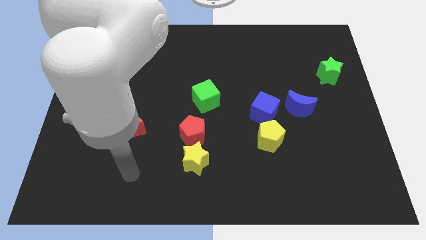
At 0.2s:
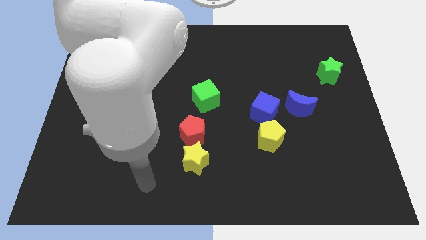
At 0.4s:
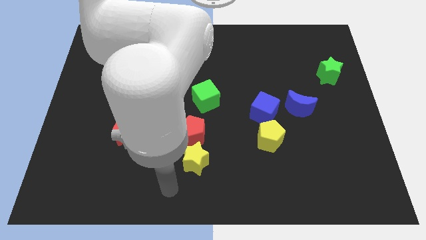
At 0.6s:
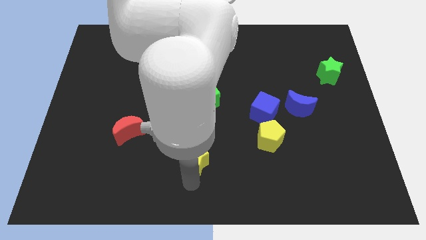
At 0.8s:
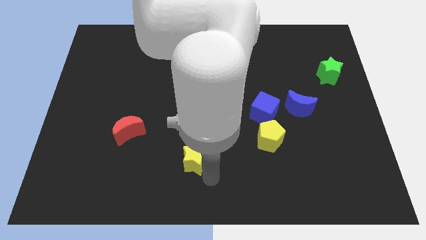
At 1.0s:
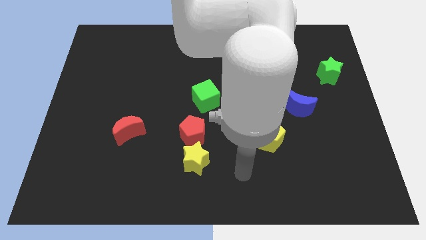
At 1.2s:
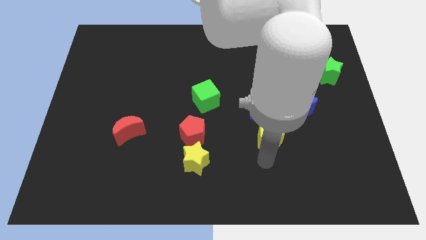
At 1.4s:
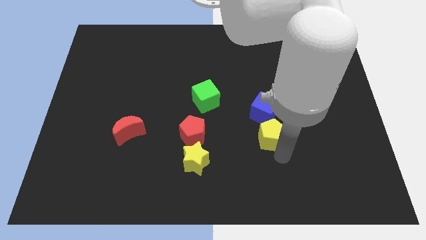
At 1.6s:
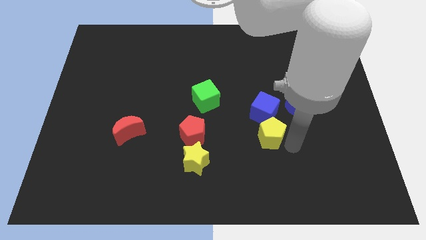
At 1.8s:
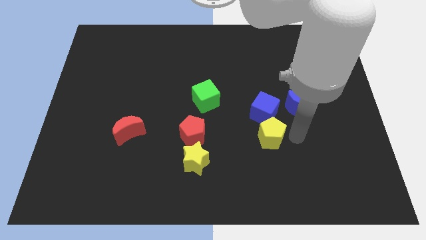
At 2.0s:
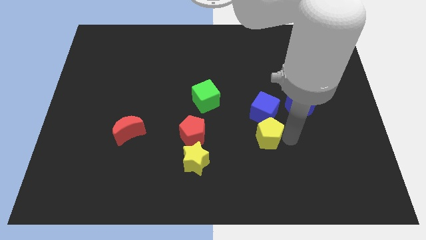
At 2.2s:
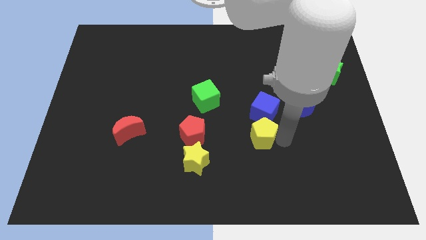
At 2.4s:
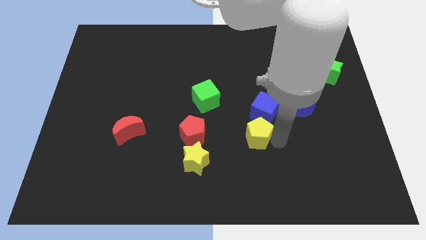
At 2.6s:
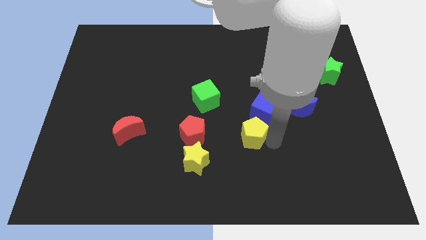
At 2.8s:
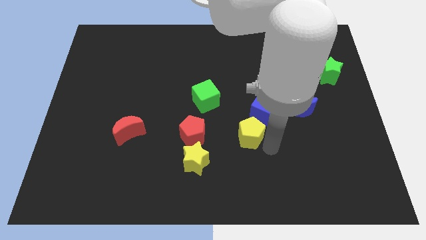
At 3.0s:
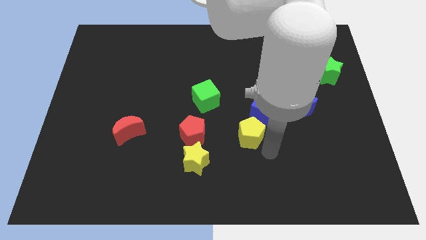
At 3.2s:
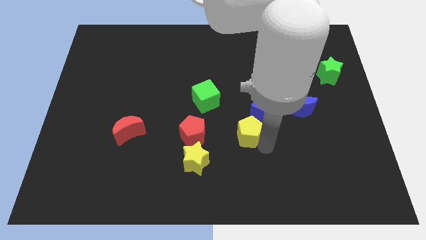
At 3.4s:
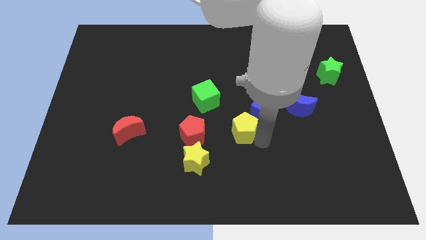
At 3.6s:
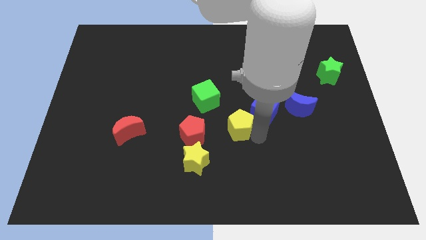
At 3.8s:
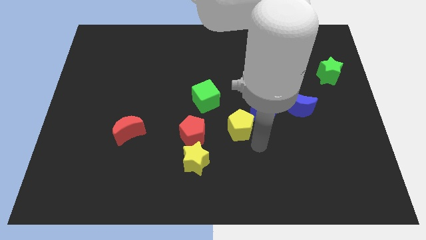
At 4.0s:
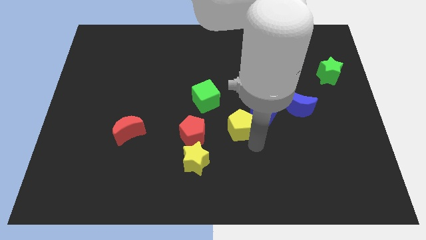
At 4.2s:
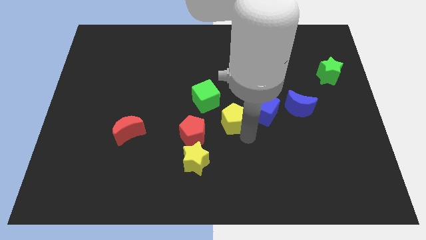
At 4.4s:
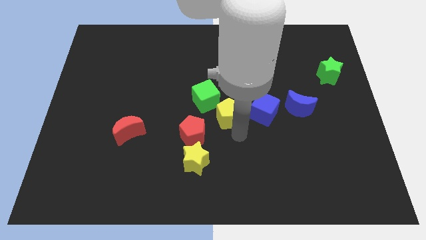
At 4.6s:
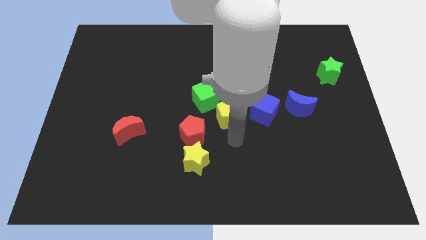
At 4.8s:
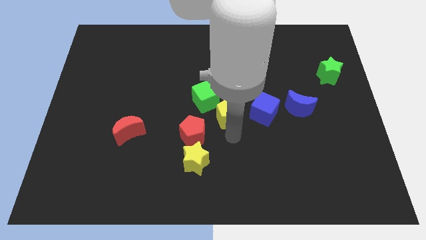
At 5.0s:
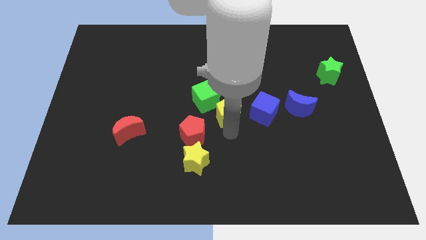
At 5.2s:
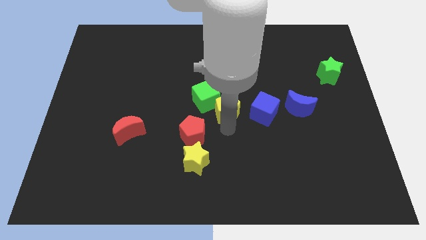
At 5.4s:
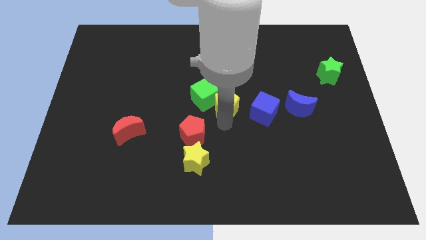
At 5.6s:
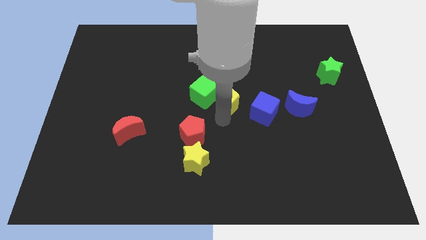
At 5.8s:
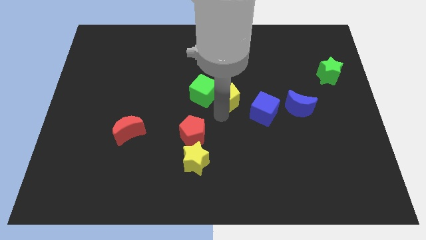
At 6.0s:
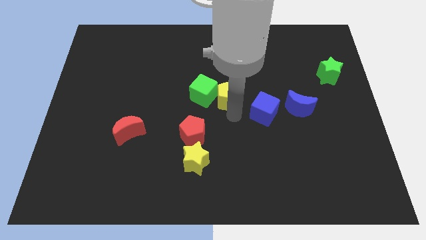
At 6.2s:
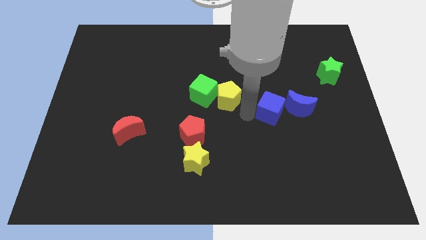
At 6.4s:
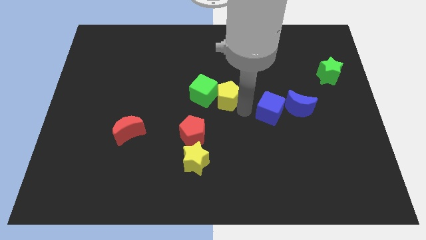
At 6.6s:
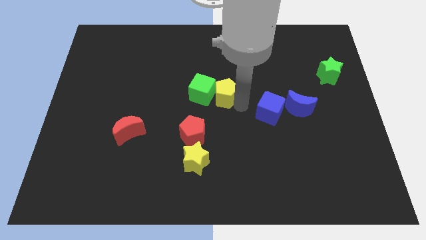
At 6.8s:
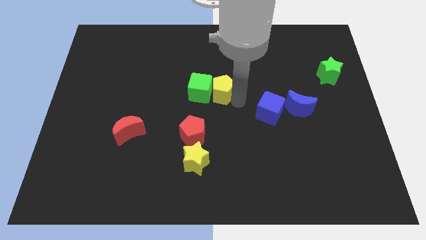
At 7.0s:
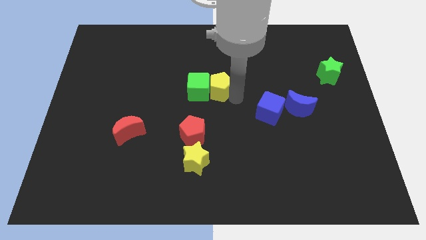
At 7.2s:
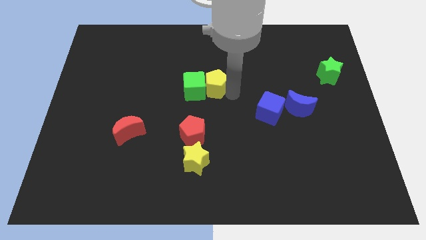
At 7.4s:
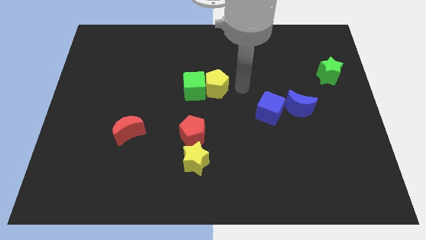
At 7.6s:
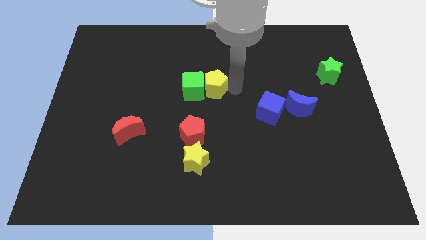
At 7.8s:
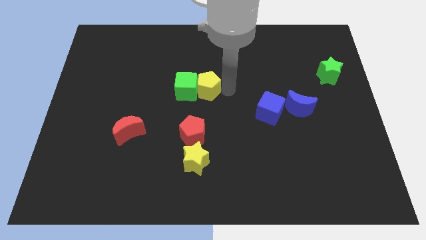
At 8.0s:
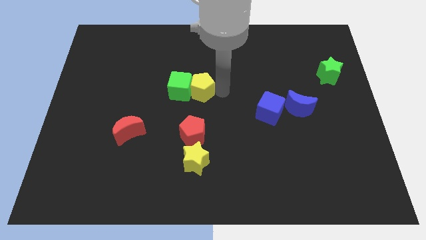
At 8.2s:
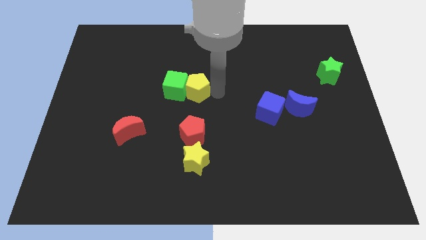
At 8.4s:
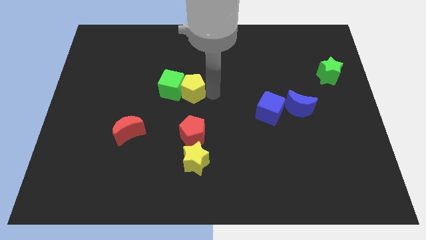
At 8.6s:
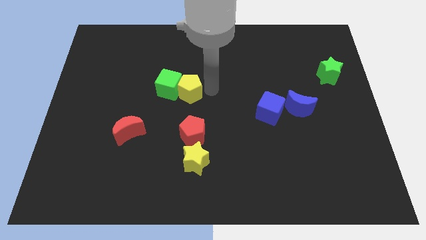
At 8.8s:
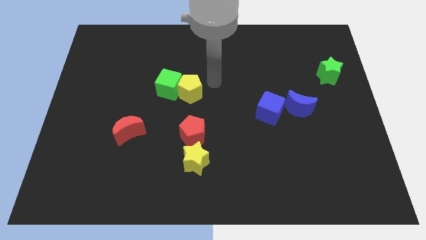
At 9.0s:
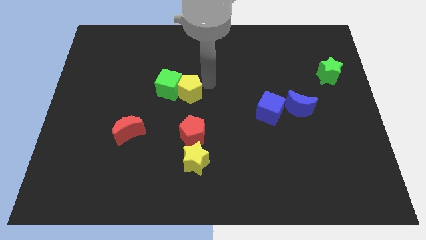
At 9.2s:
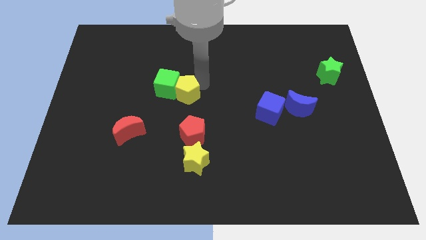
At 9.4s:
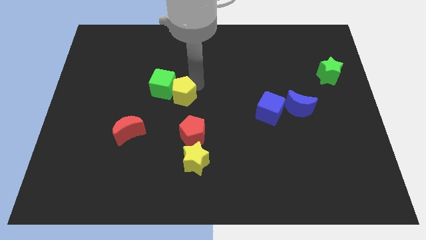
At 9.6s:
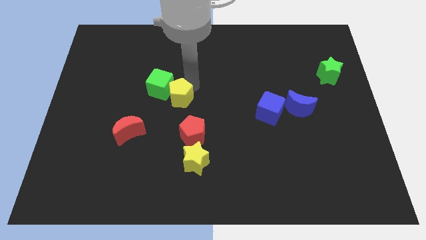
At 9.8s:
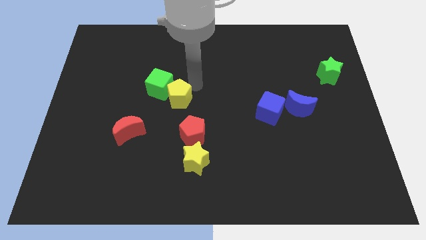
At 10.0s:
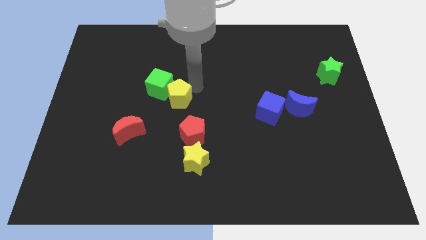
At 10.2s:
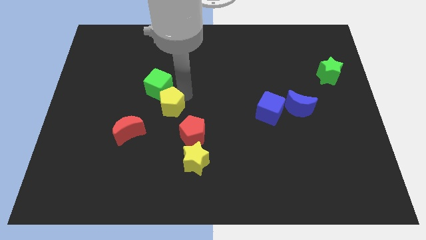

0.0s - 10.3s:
put the yellow pentagon diagonally up and to the right of the red moon

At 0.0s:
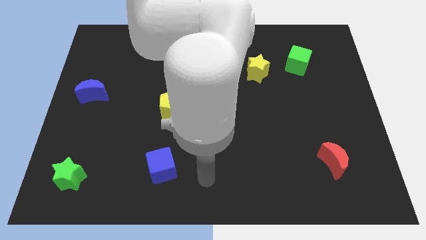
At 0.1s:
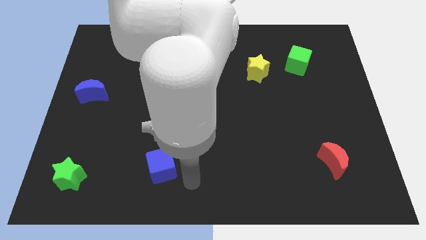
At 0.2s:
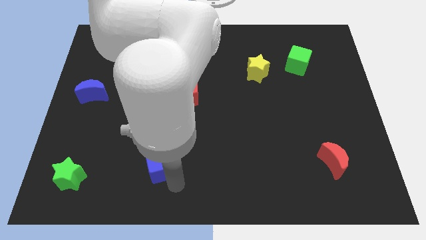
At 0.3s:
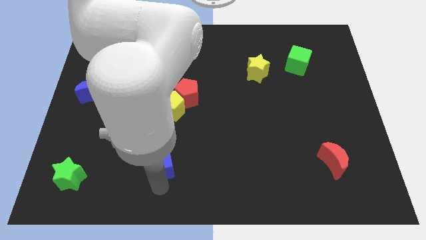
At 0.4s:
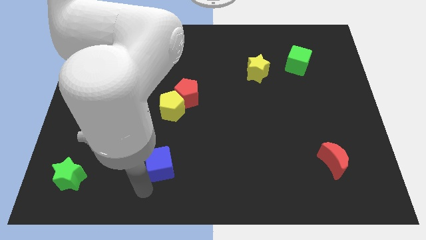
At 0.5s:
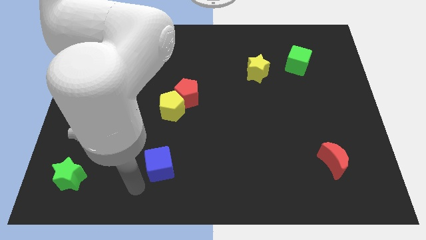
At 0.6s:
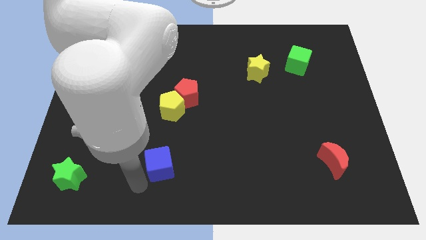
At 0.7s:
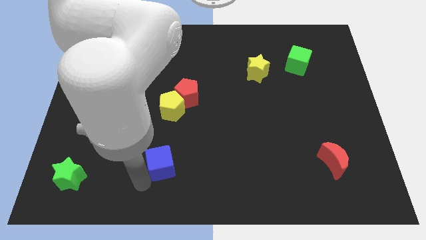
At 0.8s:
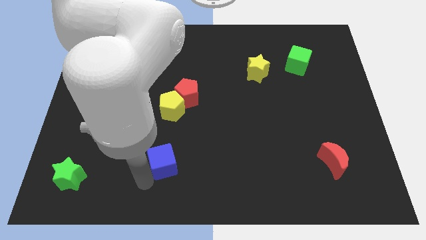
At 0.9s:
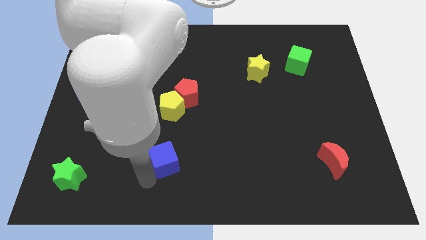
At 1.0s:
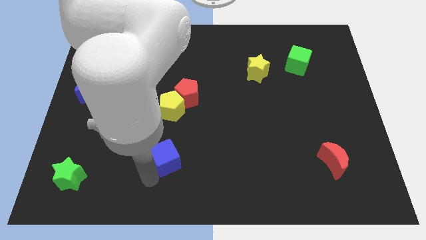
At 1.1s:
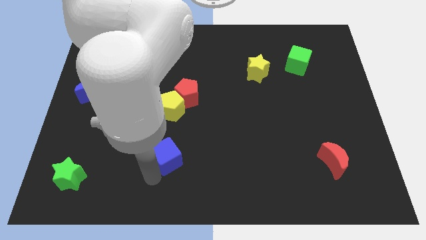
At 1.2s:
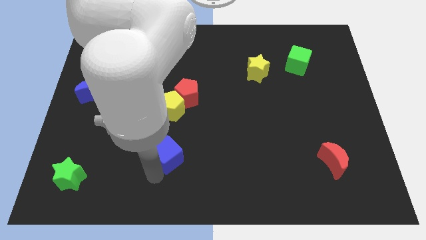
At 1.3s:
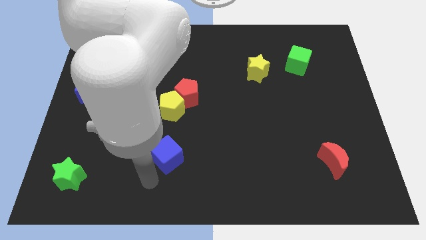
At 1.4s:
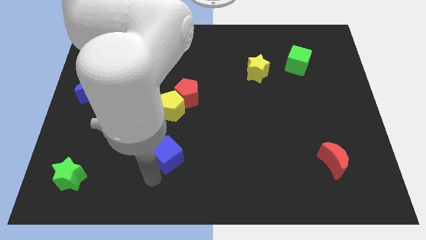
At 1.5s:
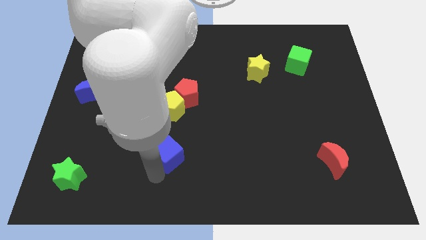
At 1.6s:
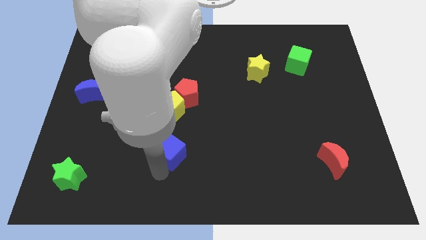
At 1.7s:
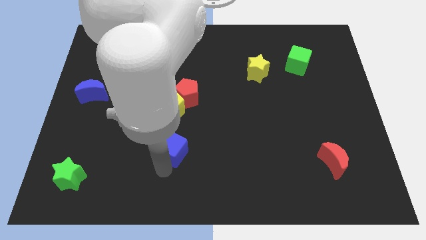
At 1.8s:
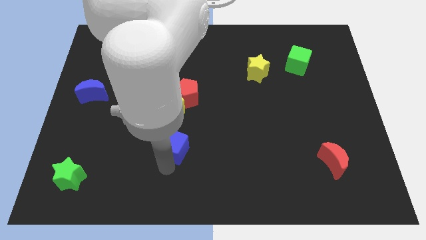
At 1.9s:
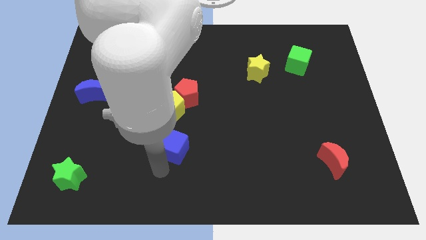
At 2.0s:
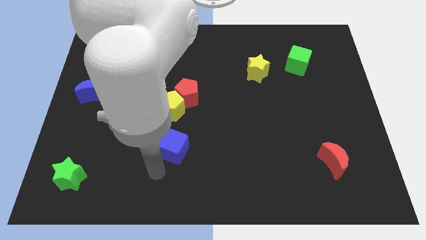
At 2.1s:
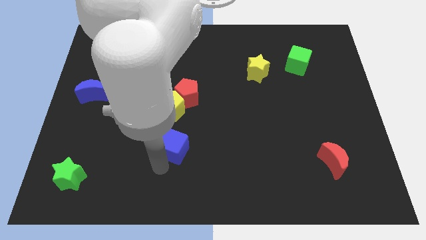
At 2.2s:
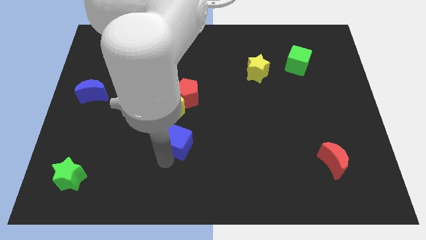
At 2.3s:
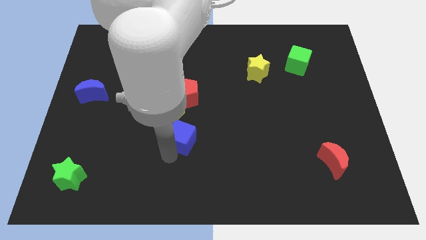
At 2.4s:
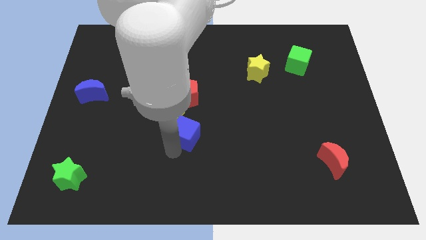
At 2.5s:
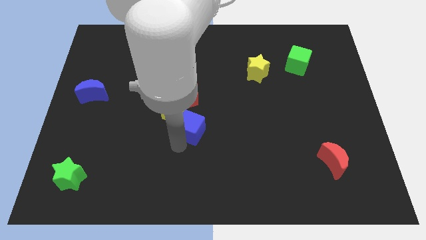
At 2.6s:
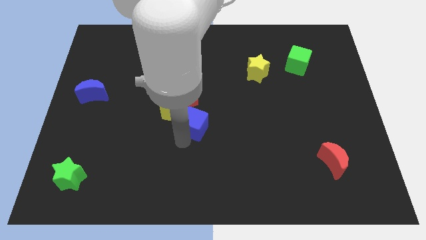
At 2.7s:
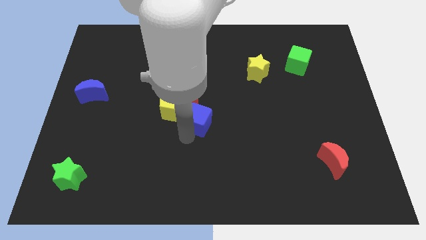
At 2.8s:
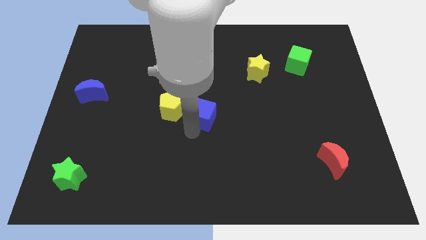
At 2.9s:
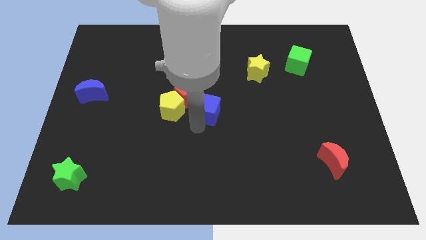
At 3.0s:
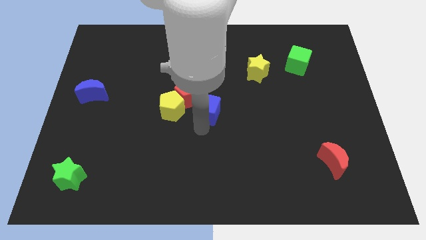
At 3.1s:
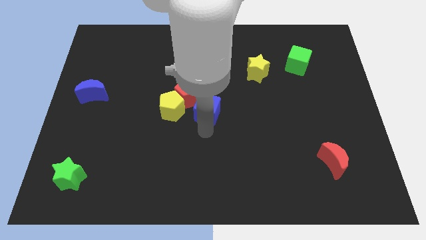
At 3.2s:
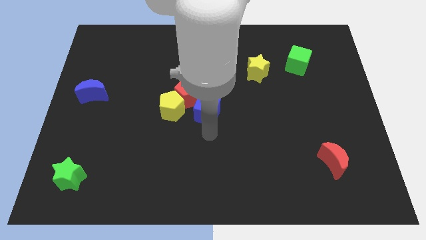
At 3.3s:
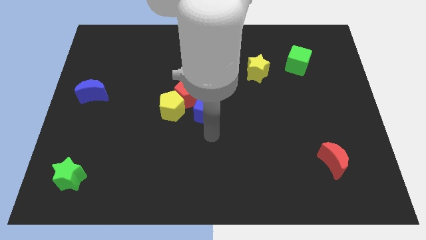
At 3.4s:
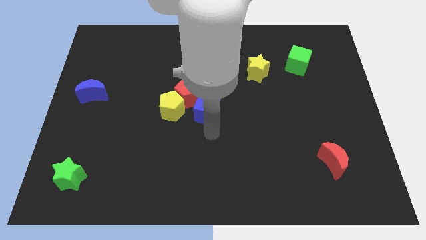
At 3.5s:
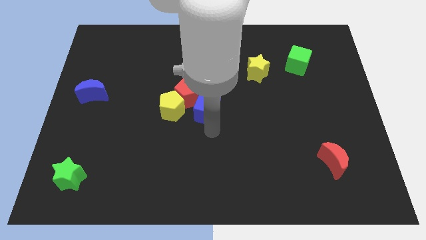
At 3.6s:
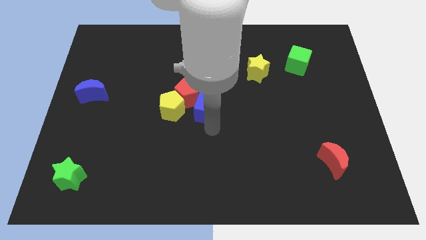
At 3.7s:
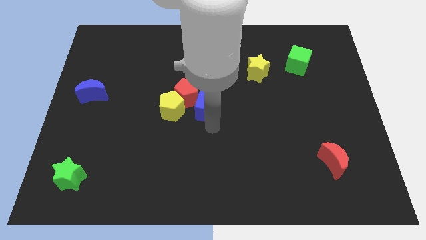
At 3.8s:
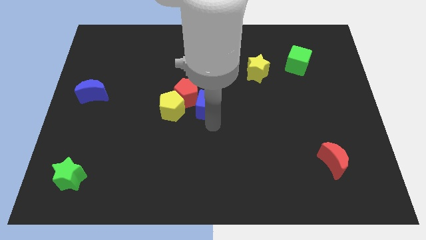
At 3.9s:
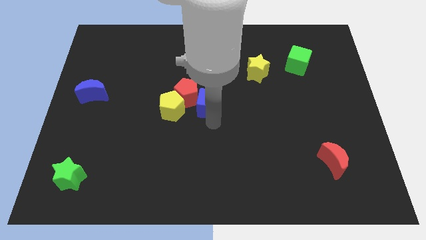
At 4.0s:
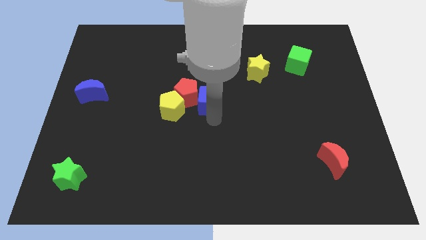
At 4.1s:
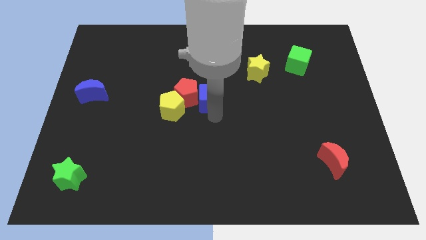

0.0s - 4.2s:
slide the blue cube diagonally up and to the right of the red pentagon
